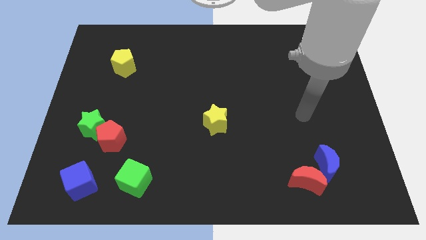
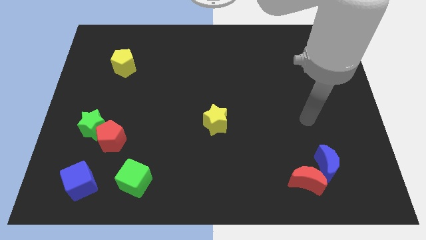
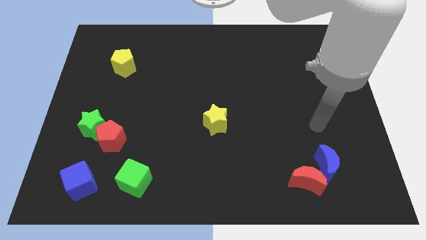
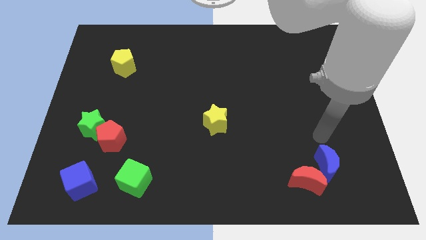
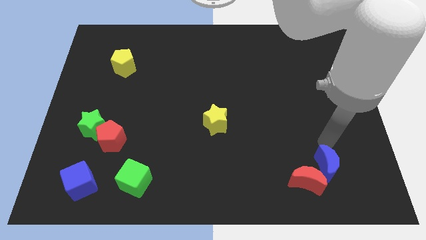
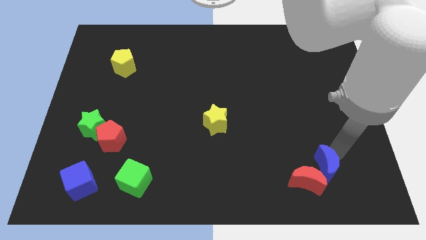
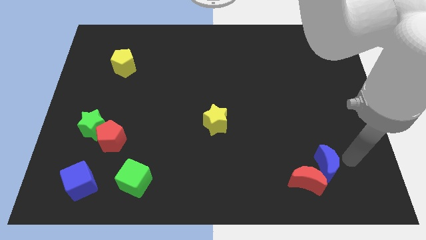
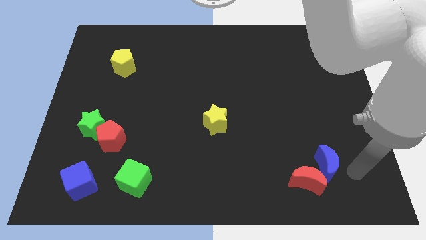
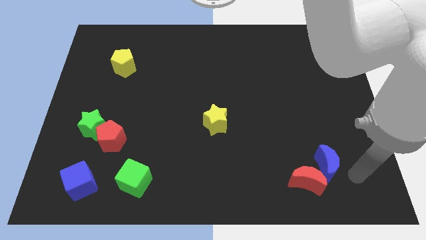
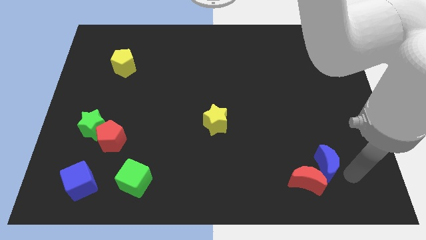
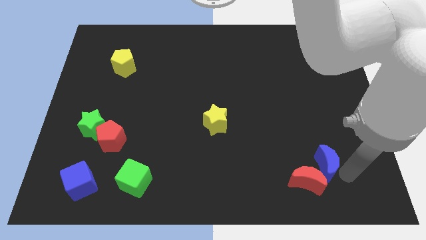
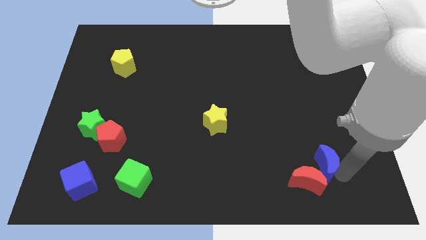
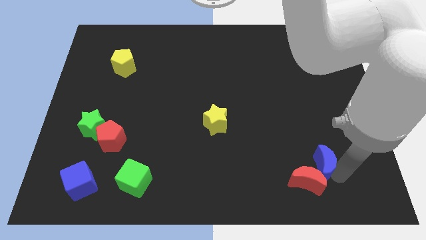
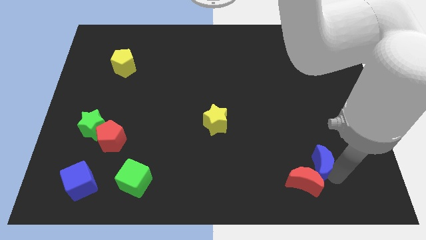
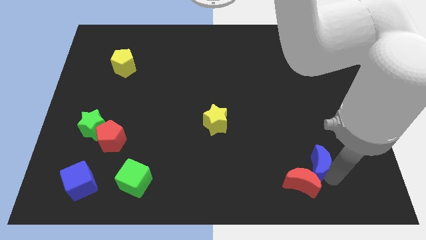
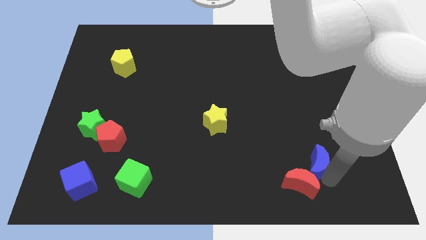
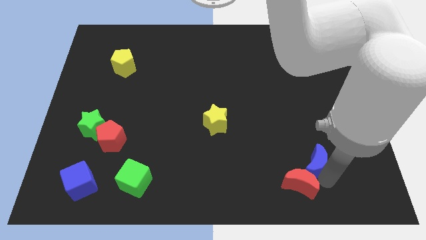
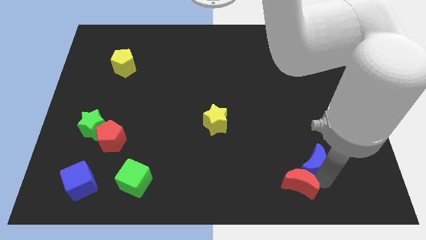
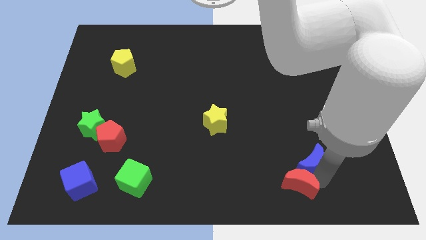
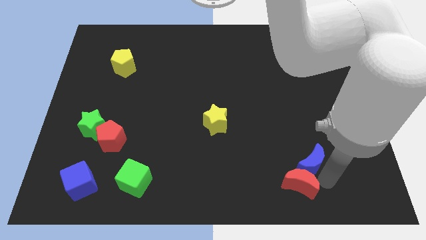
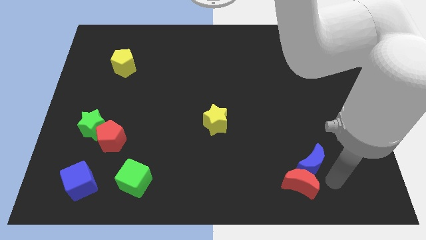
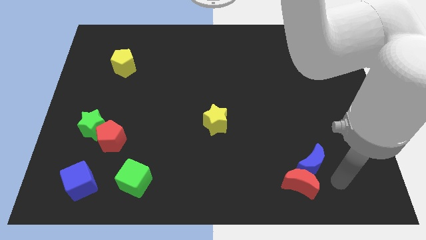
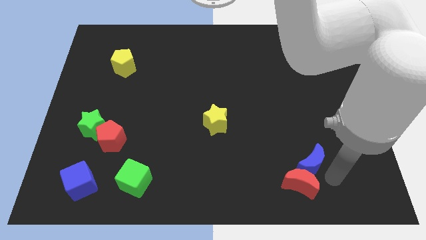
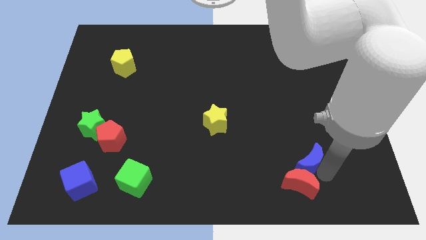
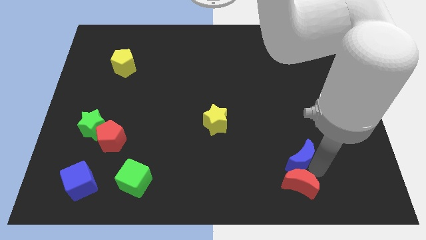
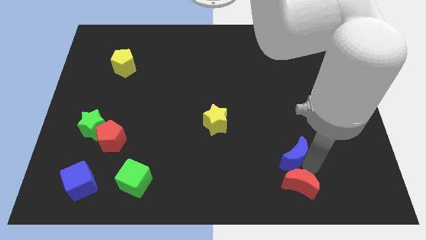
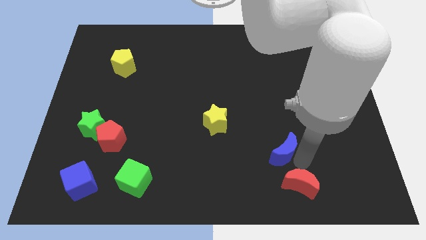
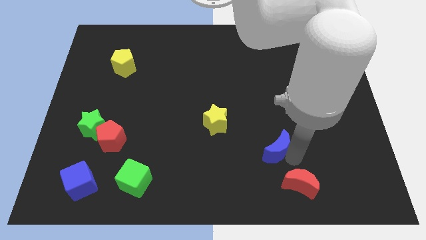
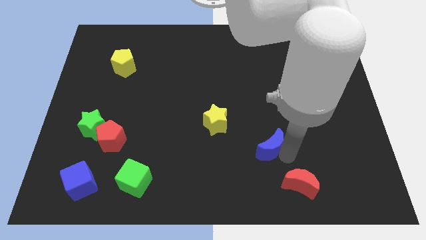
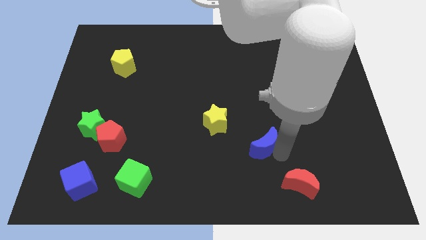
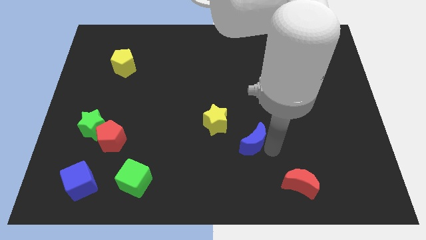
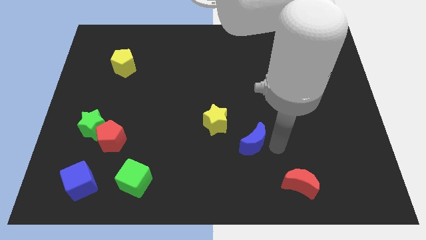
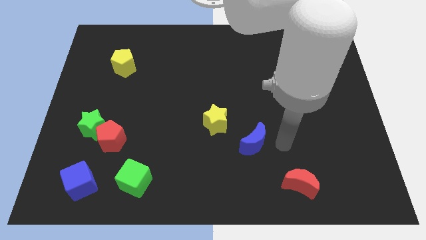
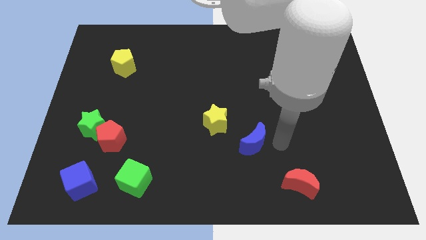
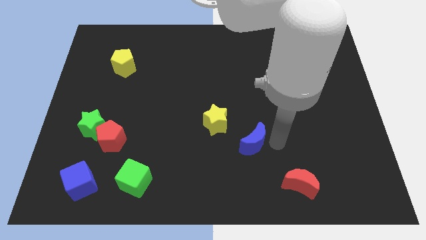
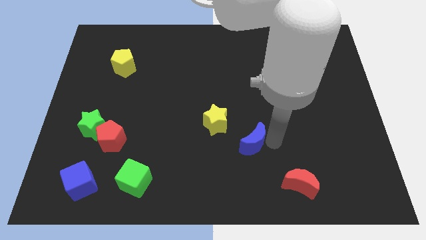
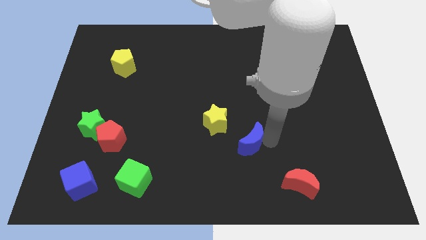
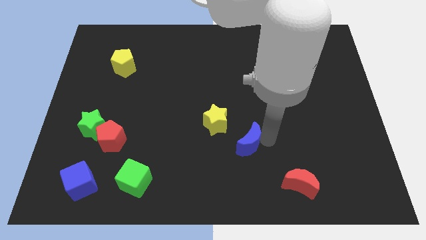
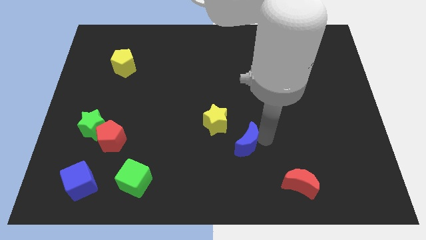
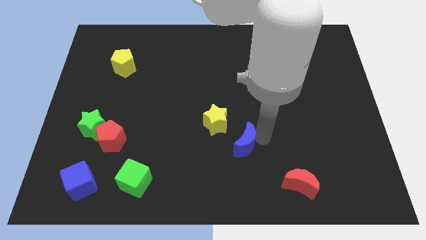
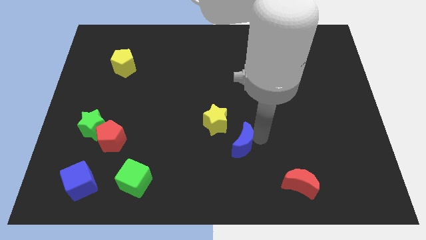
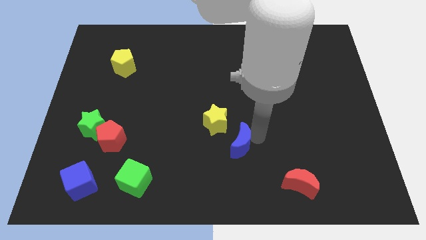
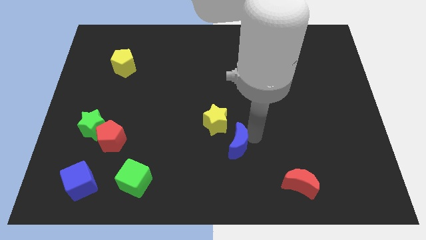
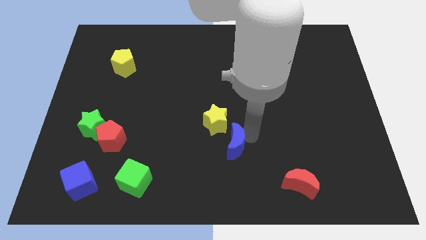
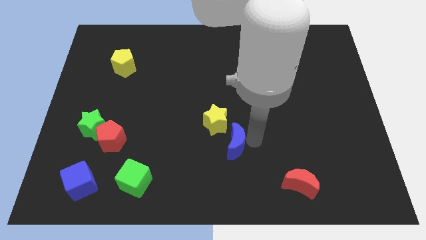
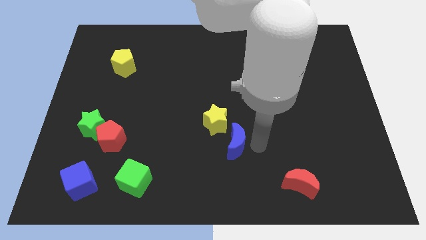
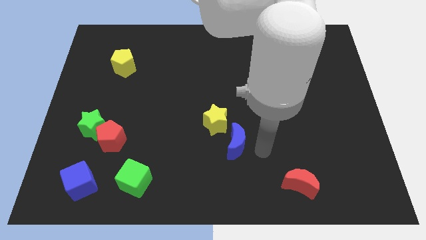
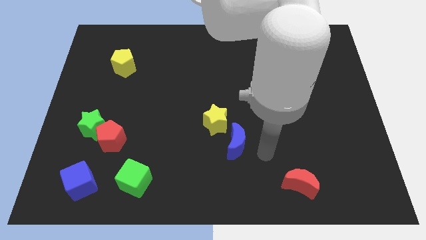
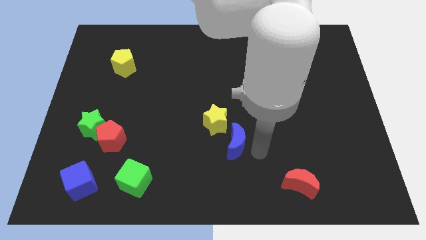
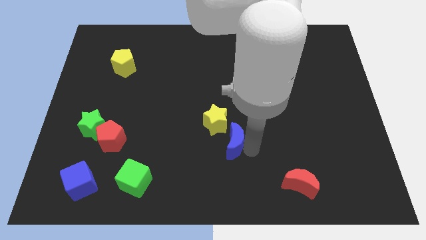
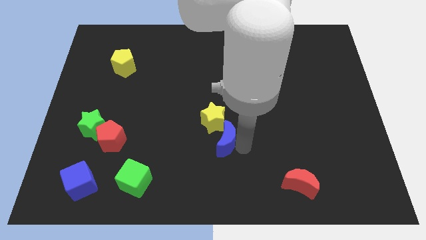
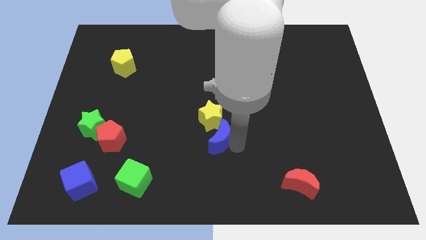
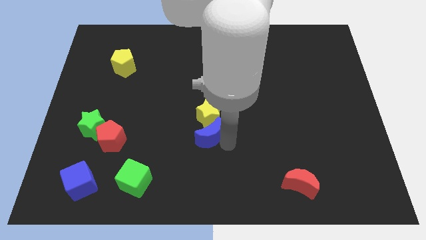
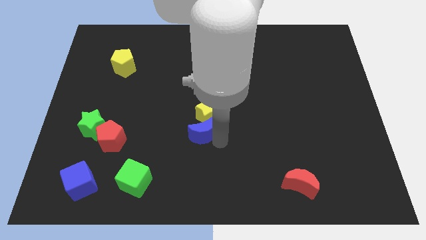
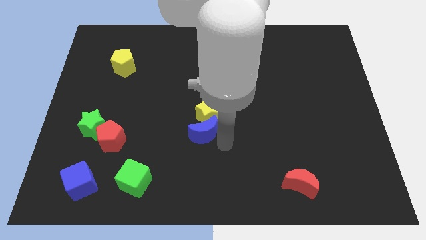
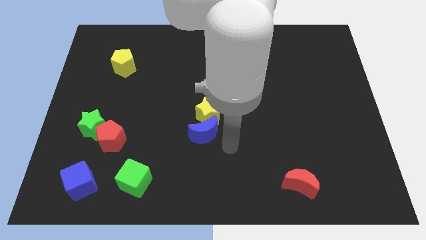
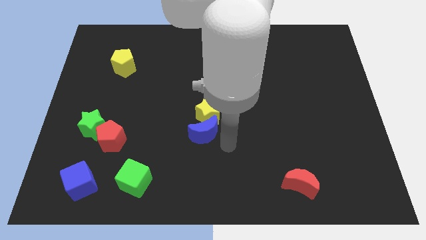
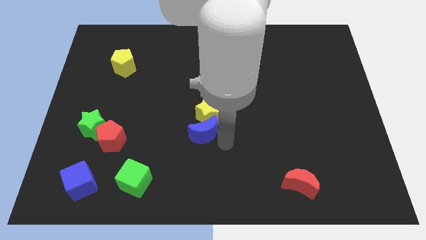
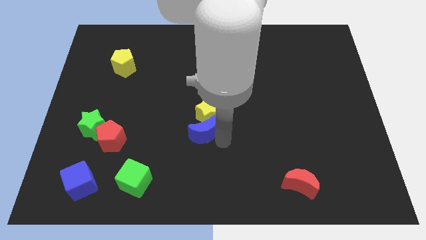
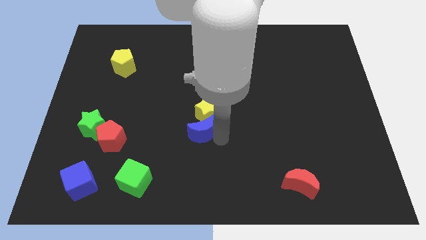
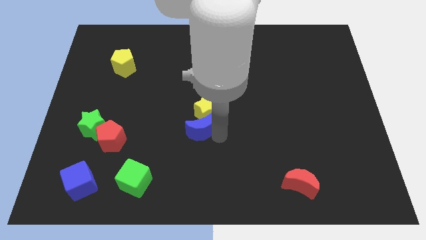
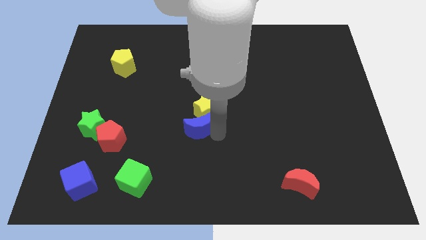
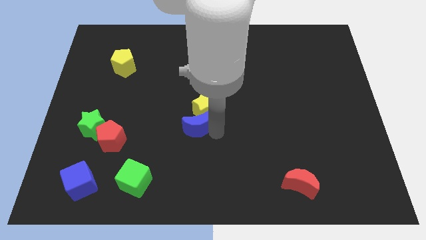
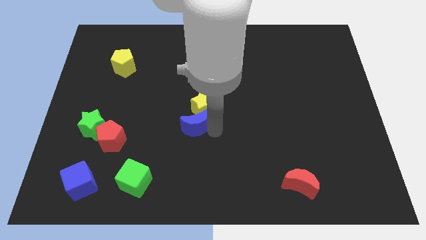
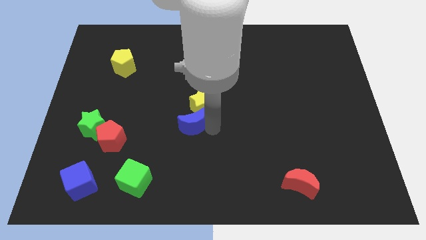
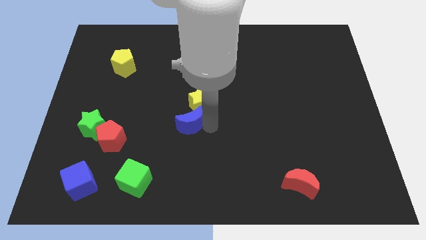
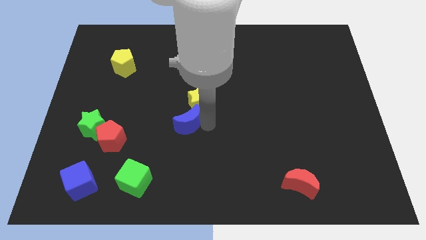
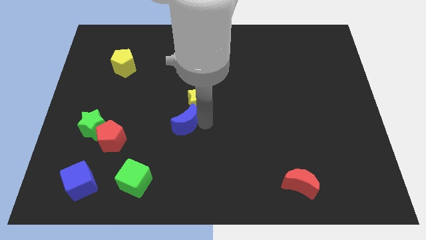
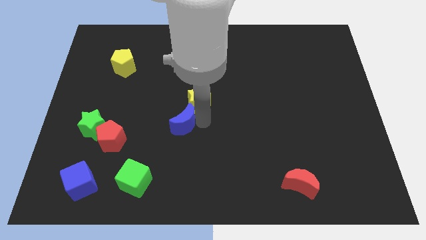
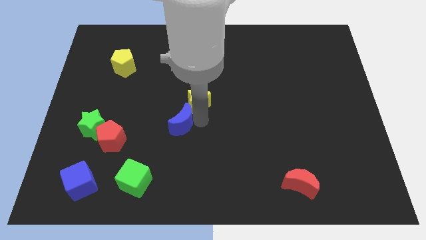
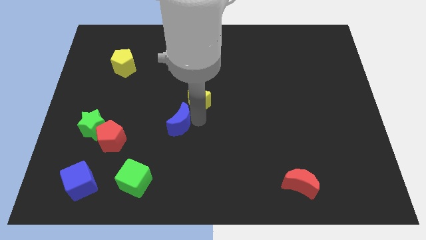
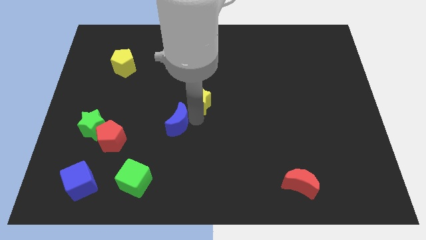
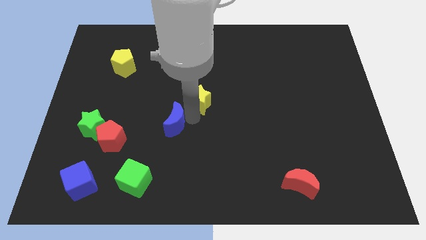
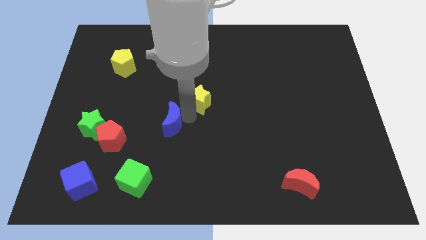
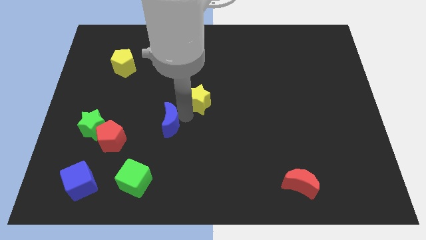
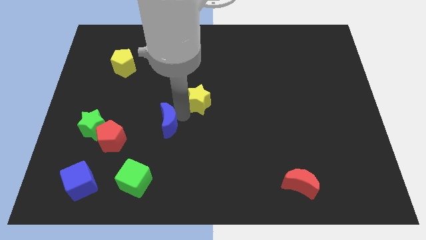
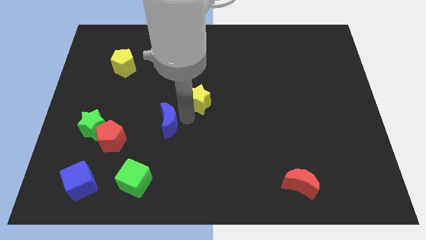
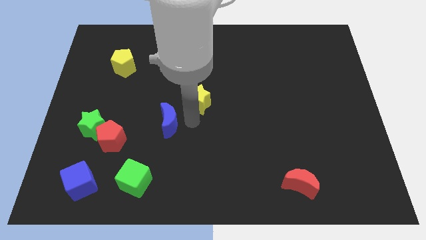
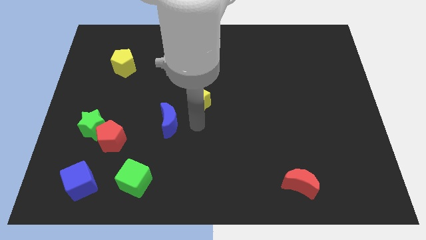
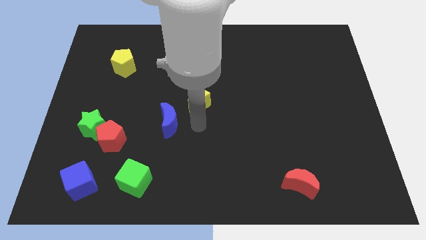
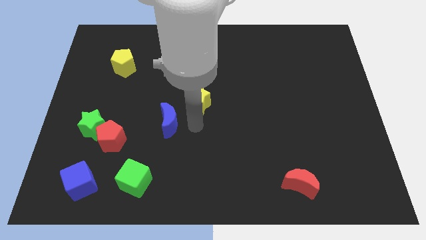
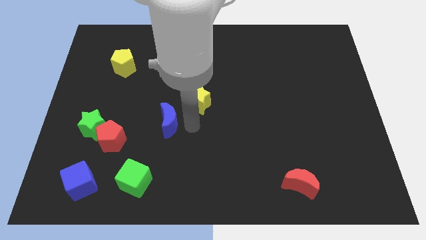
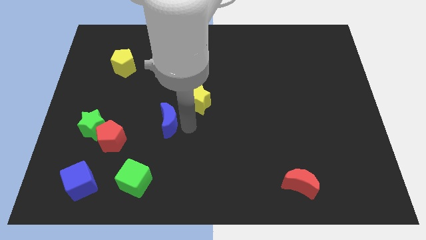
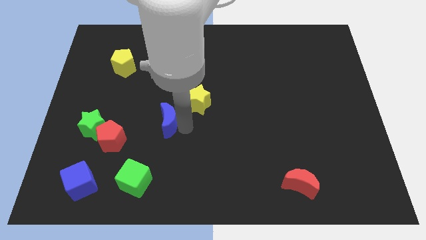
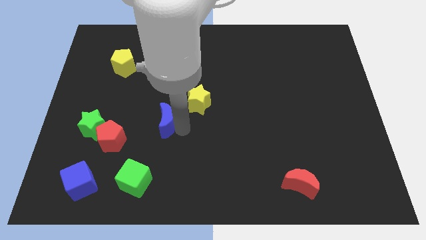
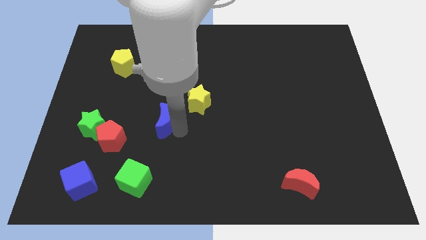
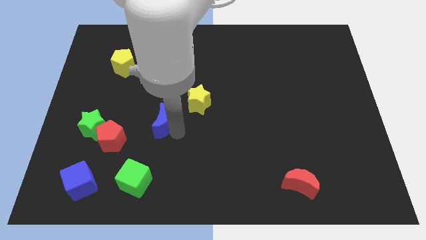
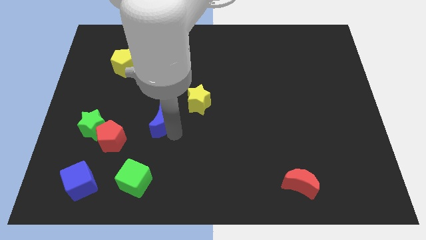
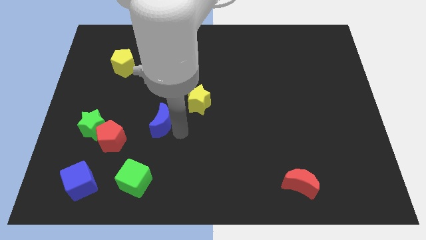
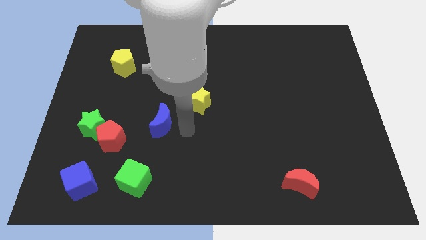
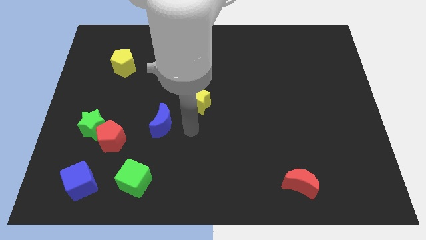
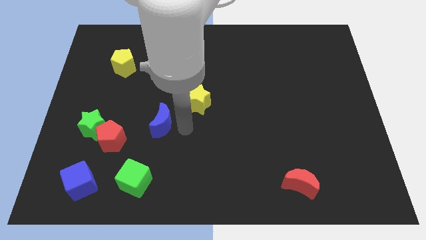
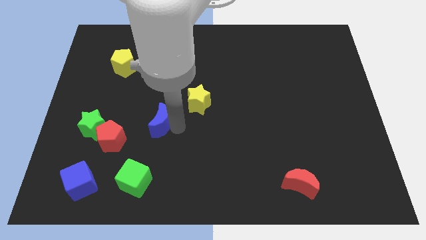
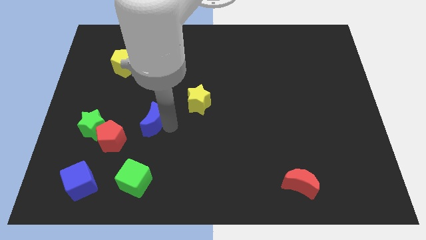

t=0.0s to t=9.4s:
push the blue moon to the top right side of the red pentagon
